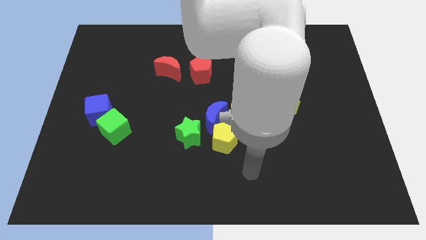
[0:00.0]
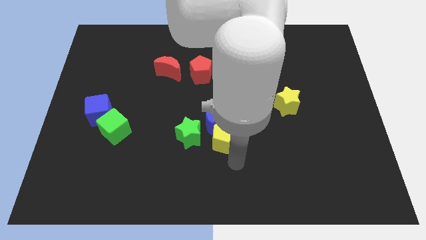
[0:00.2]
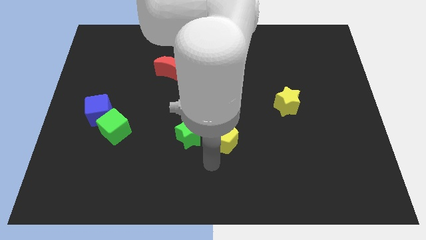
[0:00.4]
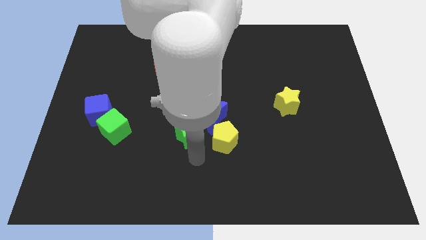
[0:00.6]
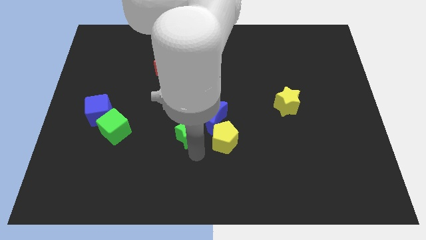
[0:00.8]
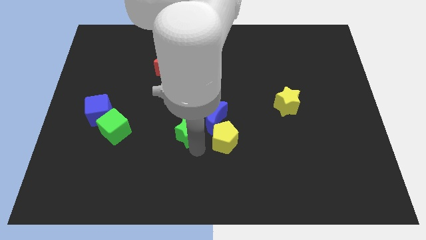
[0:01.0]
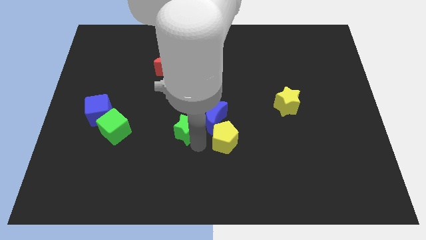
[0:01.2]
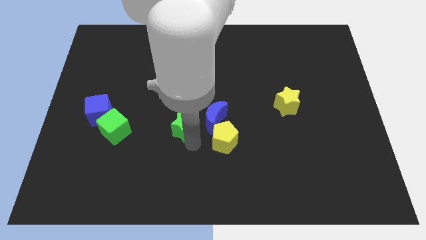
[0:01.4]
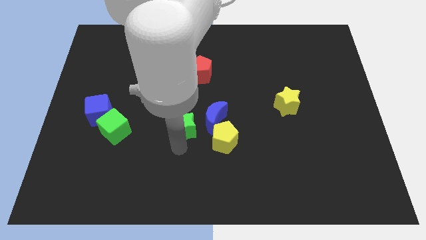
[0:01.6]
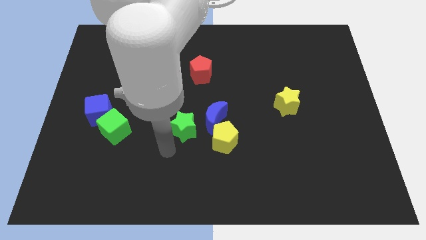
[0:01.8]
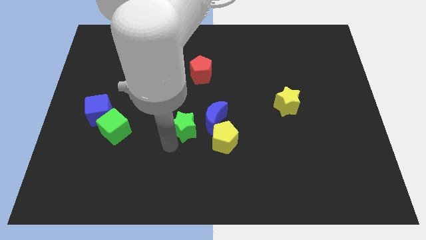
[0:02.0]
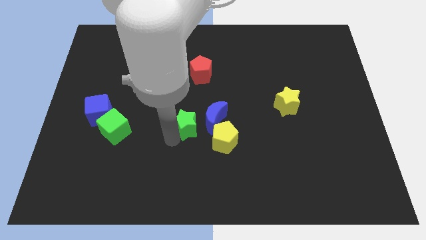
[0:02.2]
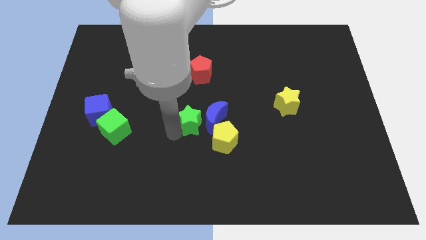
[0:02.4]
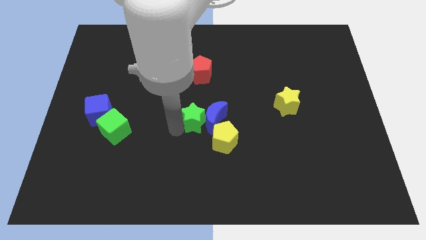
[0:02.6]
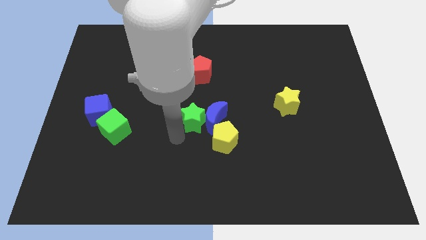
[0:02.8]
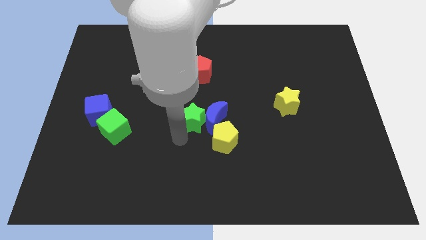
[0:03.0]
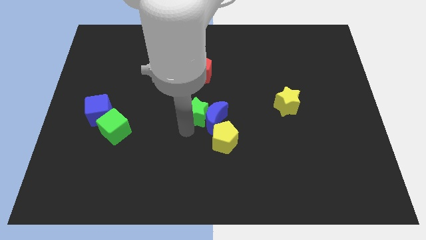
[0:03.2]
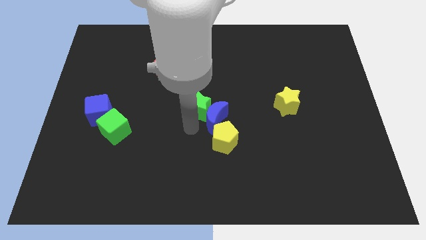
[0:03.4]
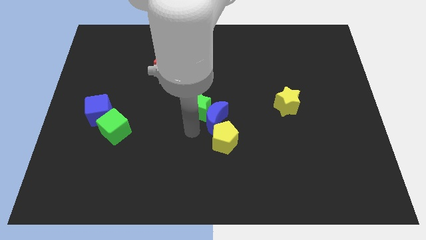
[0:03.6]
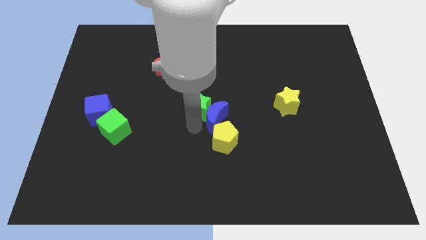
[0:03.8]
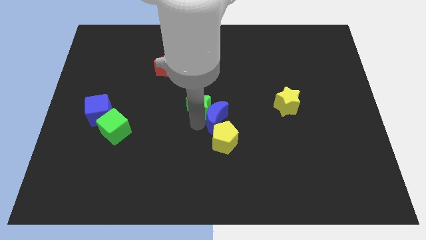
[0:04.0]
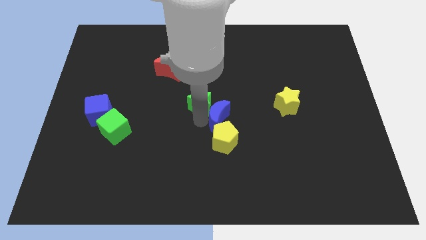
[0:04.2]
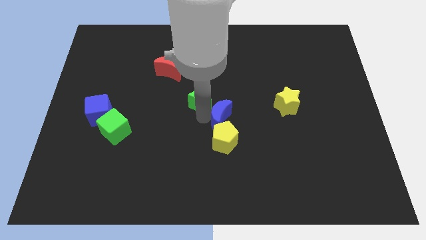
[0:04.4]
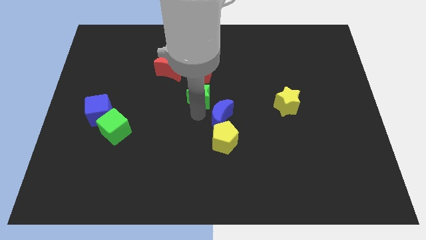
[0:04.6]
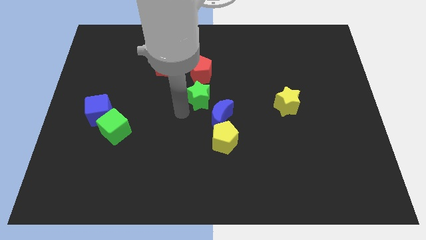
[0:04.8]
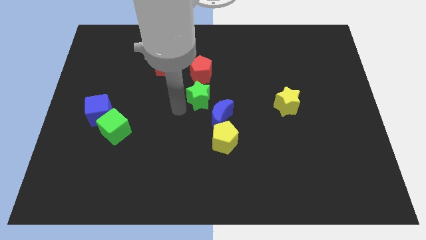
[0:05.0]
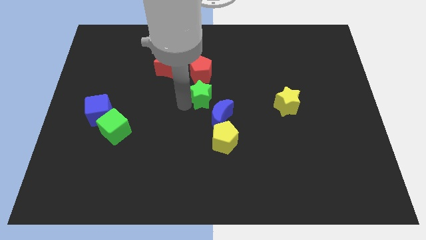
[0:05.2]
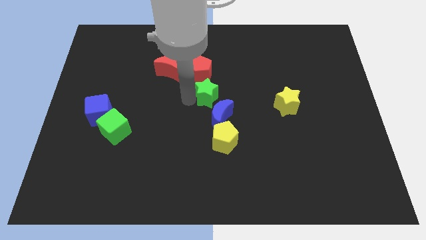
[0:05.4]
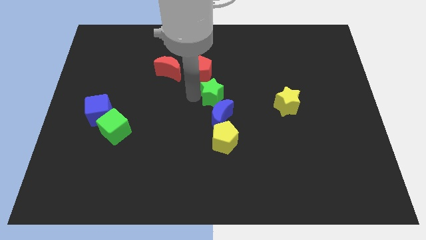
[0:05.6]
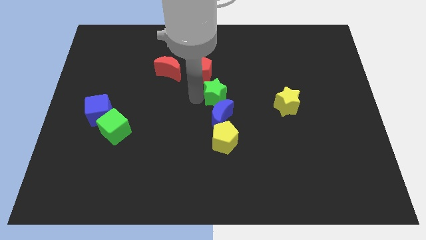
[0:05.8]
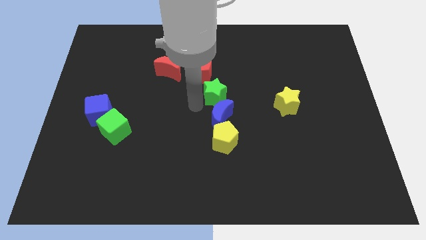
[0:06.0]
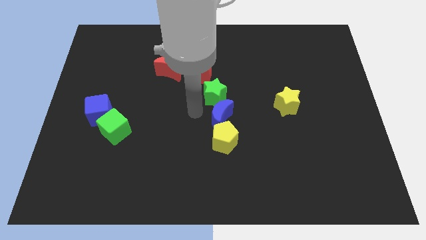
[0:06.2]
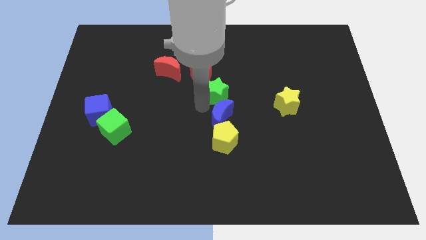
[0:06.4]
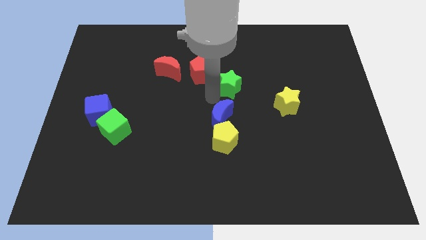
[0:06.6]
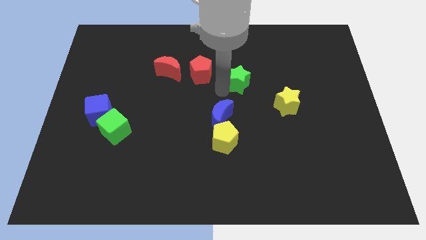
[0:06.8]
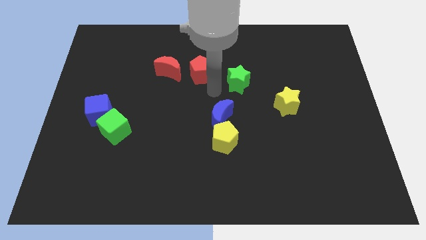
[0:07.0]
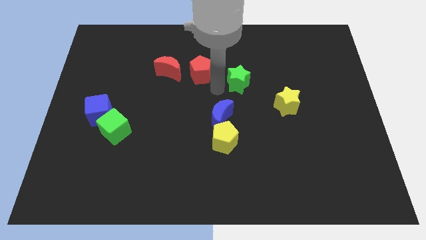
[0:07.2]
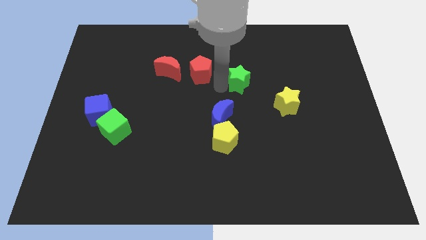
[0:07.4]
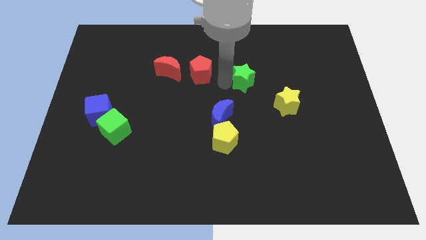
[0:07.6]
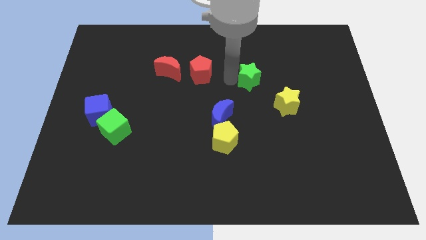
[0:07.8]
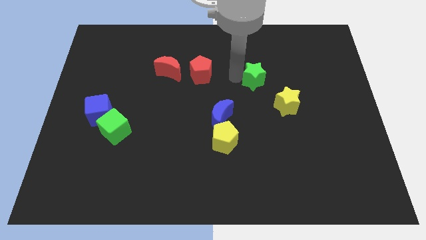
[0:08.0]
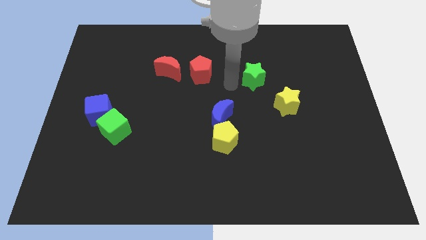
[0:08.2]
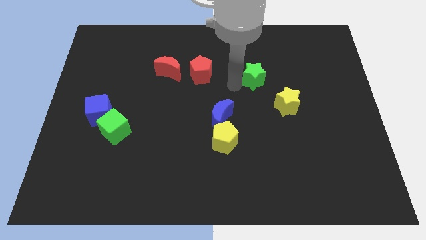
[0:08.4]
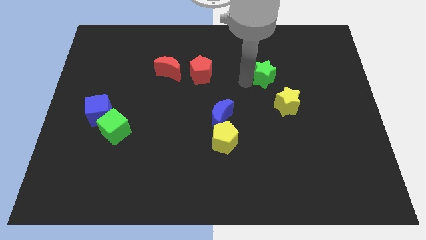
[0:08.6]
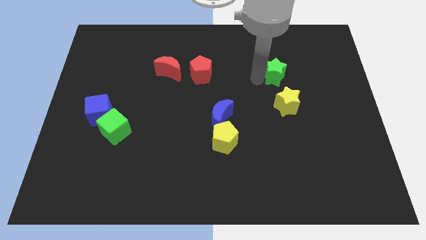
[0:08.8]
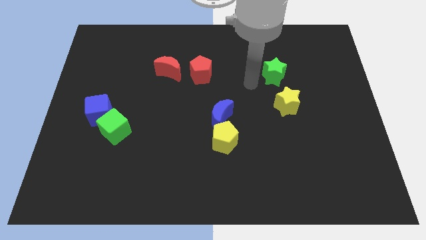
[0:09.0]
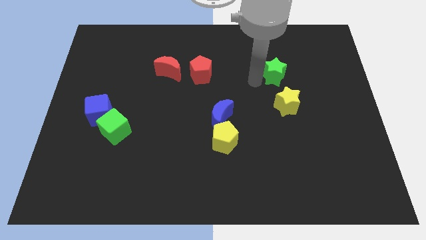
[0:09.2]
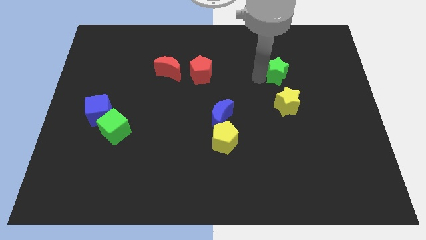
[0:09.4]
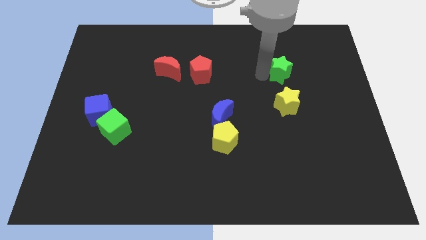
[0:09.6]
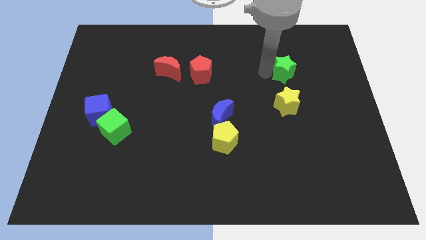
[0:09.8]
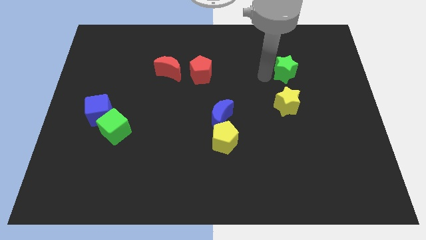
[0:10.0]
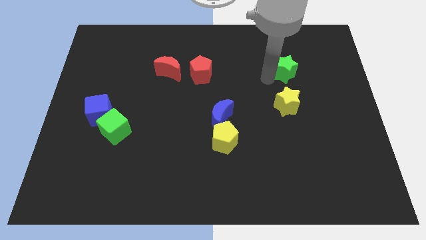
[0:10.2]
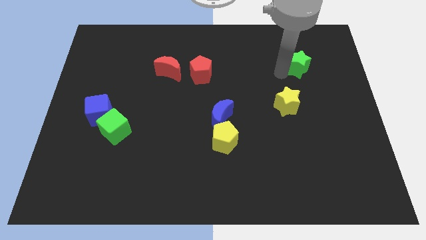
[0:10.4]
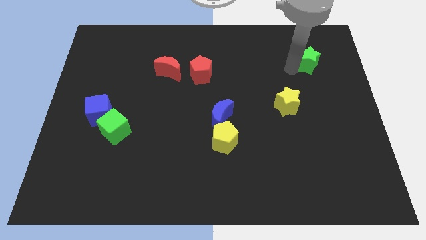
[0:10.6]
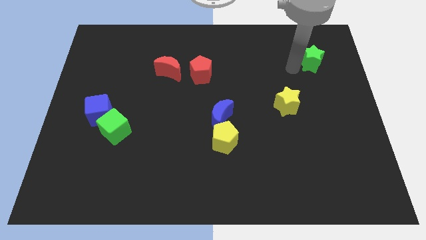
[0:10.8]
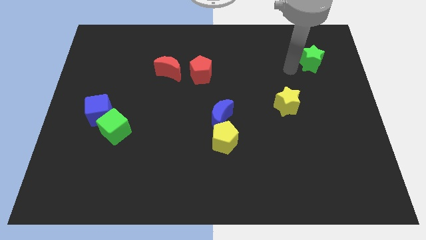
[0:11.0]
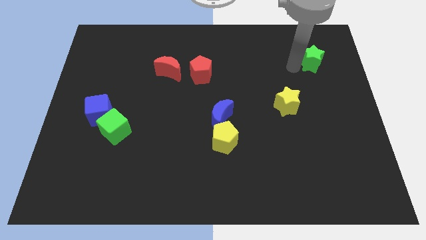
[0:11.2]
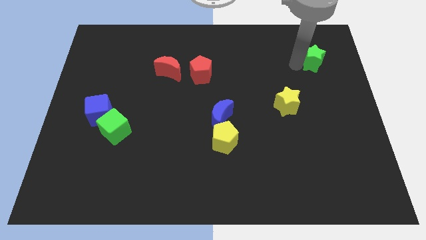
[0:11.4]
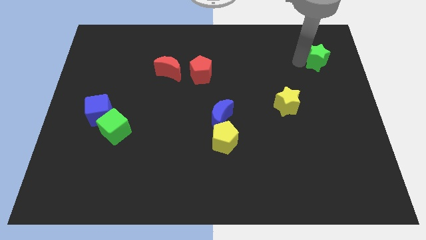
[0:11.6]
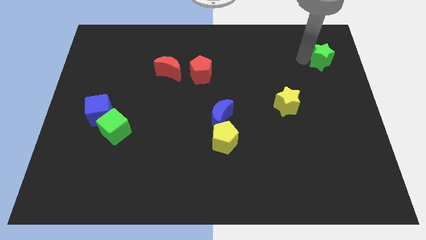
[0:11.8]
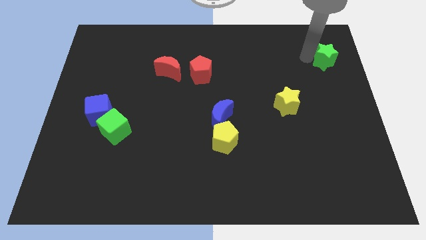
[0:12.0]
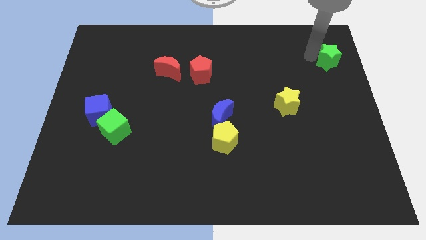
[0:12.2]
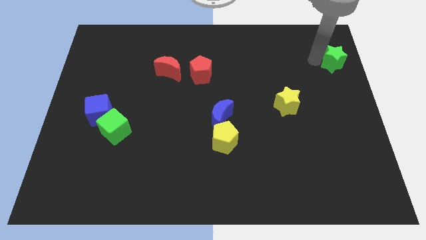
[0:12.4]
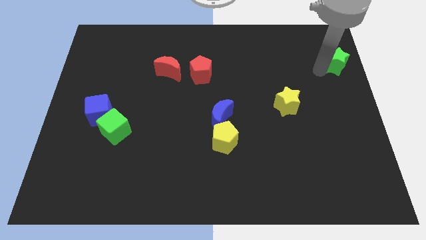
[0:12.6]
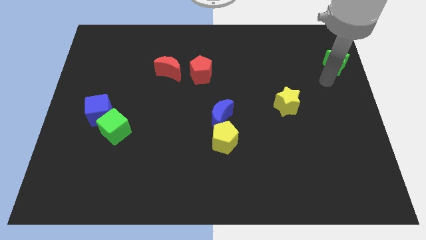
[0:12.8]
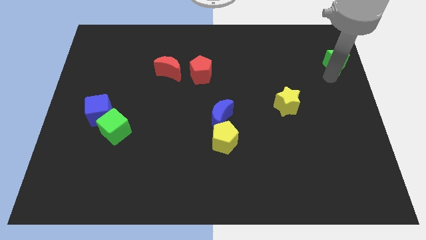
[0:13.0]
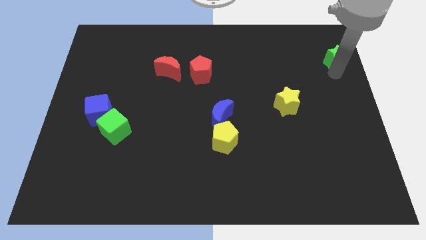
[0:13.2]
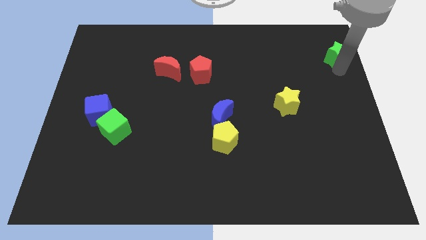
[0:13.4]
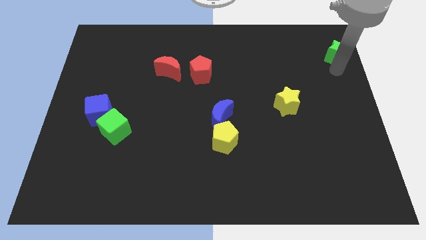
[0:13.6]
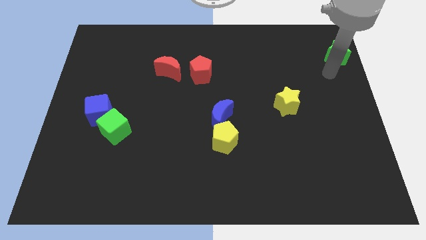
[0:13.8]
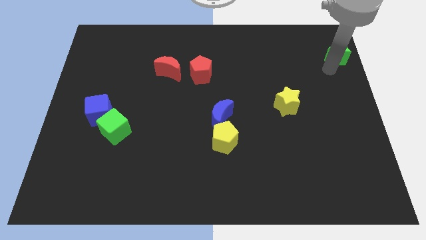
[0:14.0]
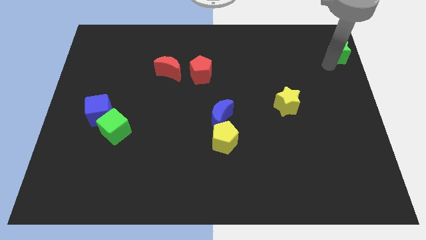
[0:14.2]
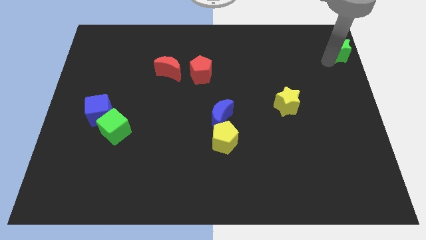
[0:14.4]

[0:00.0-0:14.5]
push the green star to the top right of the board
